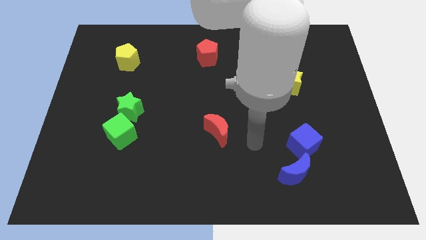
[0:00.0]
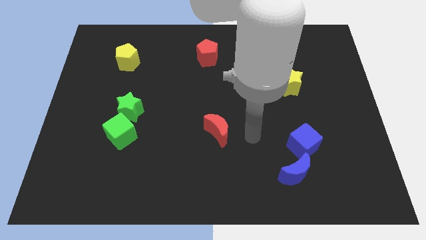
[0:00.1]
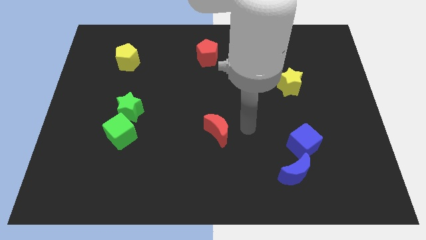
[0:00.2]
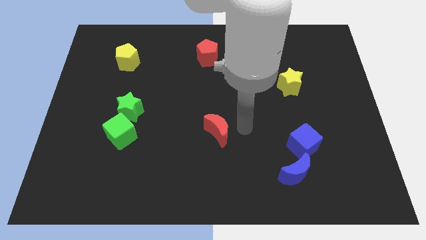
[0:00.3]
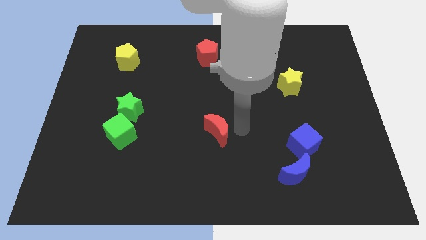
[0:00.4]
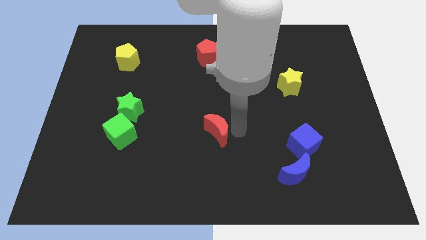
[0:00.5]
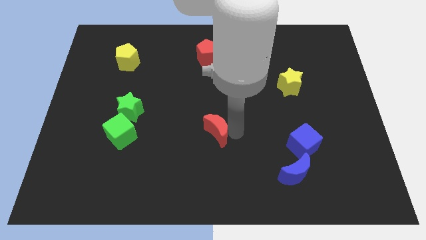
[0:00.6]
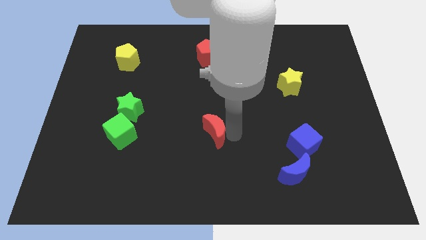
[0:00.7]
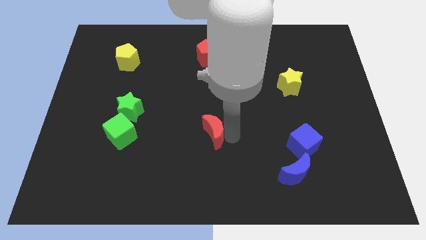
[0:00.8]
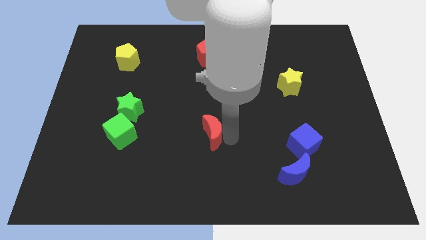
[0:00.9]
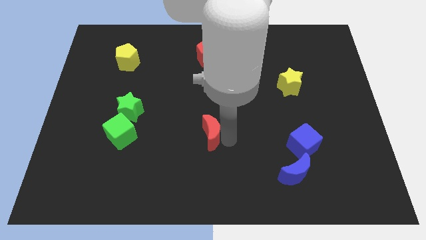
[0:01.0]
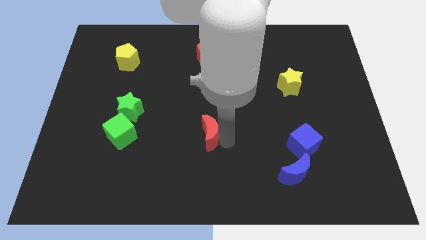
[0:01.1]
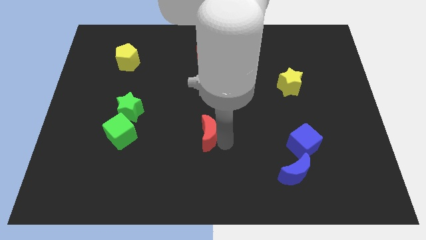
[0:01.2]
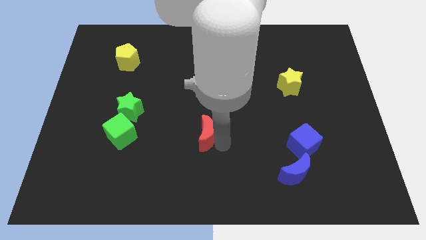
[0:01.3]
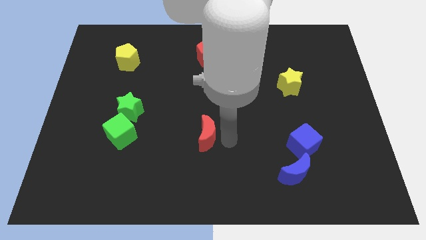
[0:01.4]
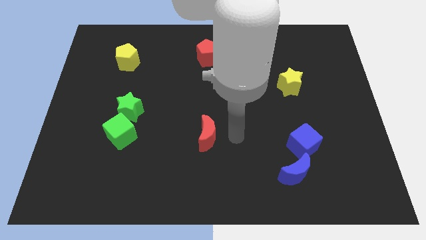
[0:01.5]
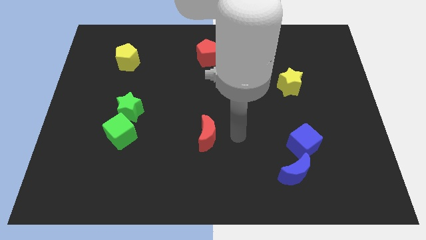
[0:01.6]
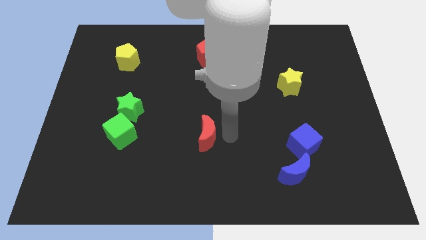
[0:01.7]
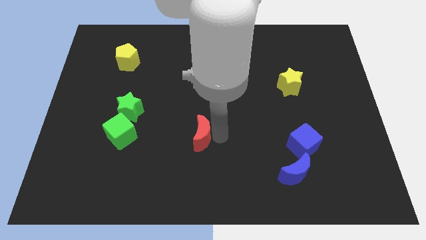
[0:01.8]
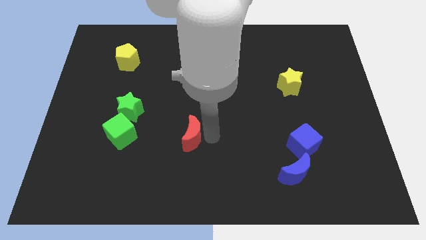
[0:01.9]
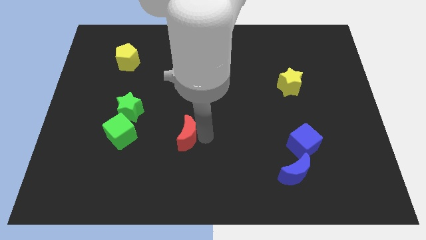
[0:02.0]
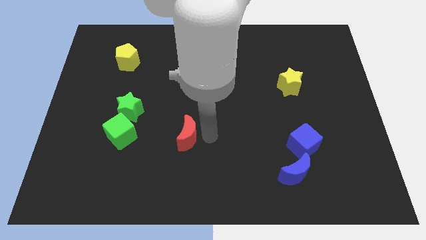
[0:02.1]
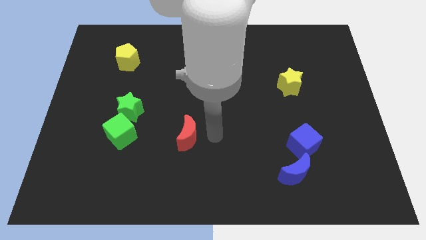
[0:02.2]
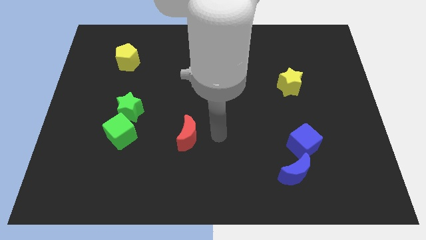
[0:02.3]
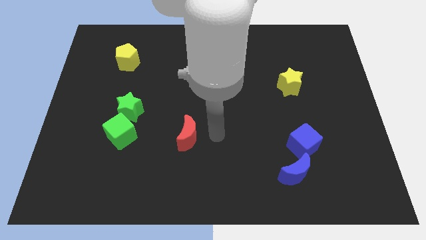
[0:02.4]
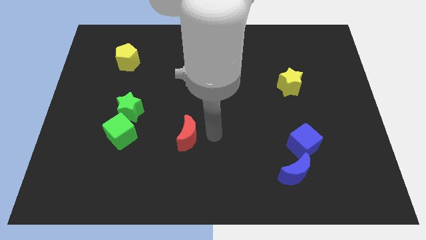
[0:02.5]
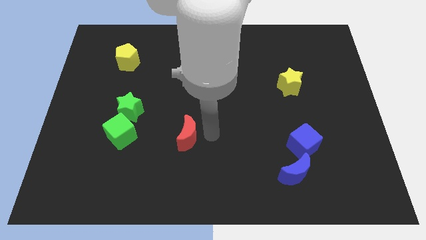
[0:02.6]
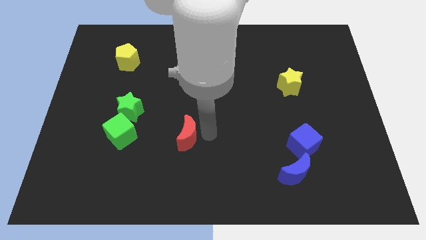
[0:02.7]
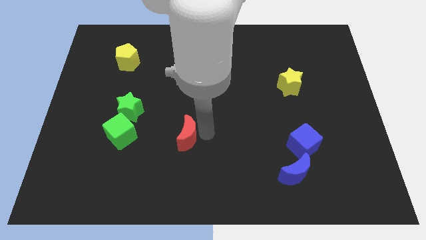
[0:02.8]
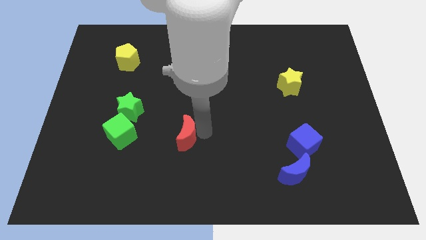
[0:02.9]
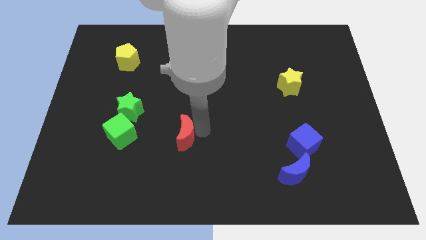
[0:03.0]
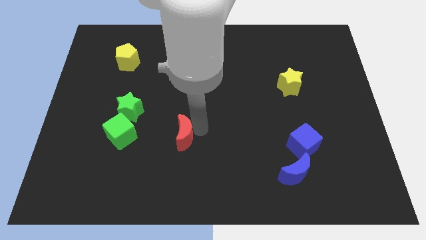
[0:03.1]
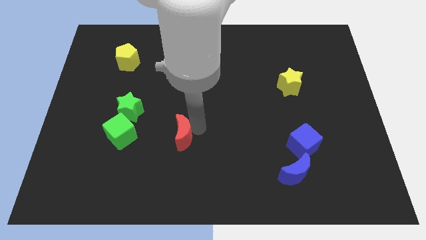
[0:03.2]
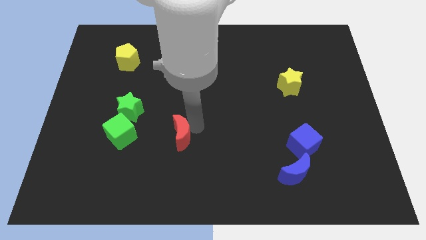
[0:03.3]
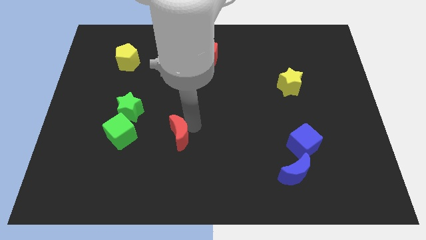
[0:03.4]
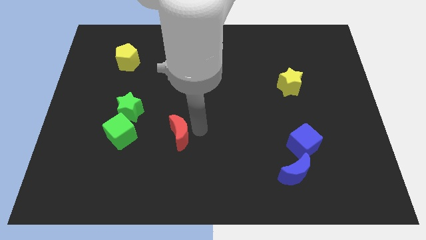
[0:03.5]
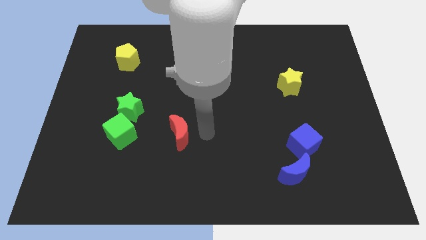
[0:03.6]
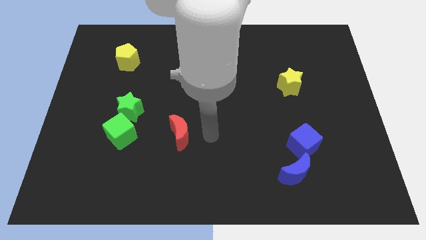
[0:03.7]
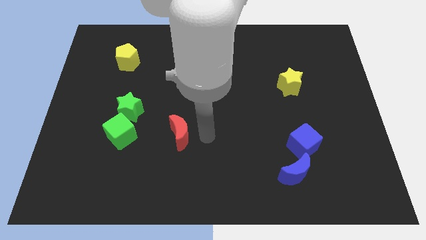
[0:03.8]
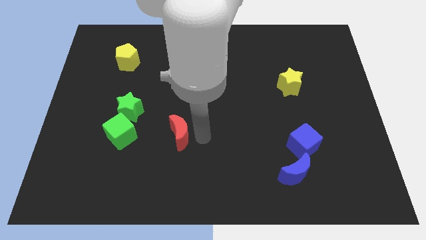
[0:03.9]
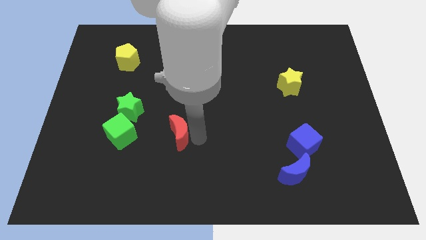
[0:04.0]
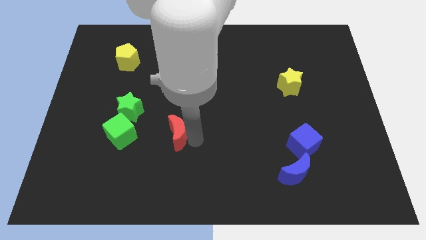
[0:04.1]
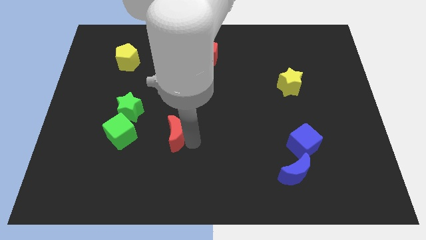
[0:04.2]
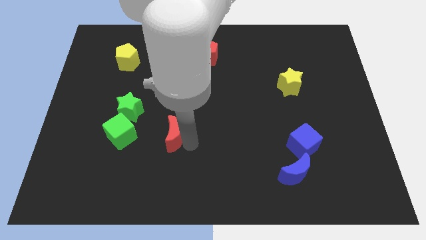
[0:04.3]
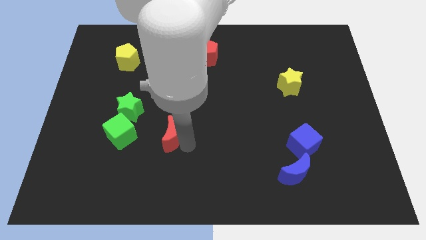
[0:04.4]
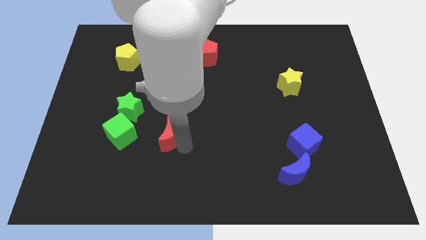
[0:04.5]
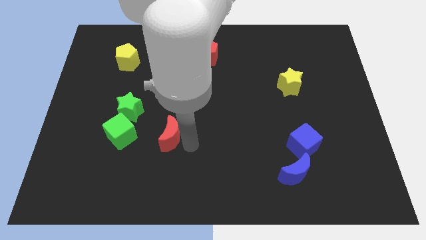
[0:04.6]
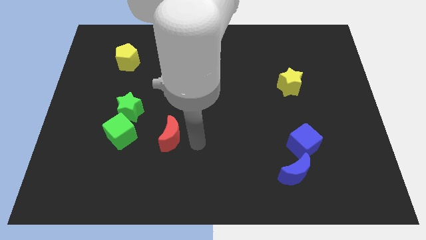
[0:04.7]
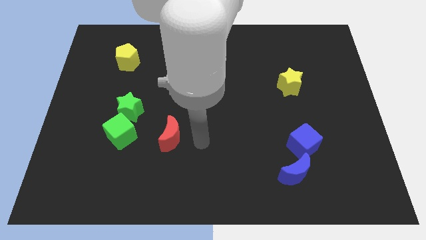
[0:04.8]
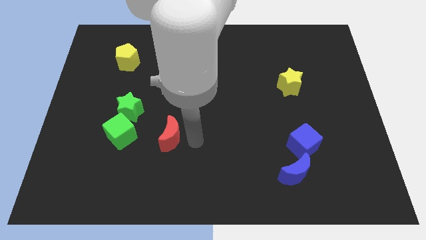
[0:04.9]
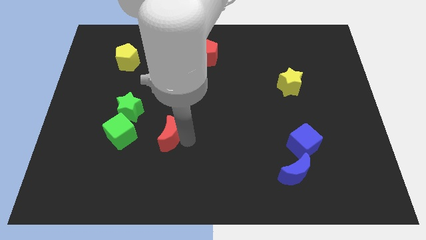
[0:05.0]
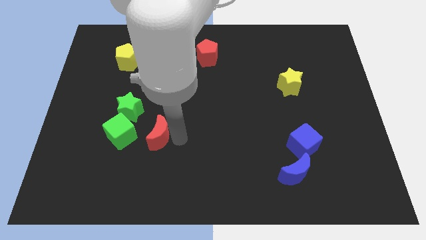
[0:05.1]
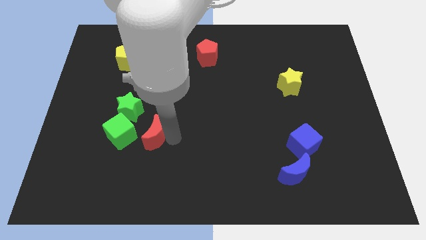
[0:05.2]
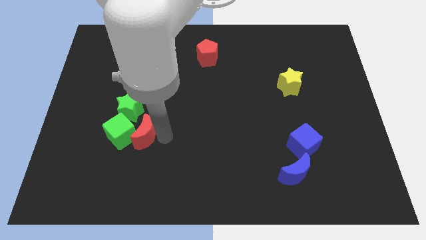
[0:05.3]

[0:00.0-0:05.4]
slide the red moon close to the green cube

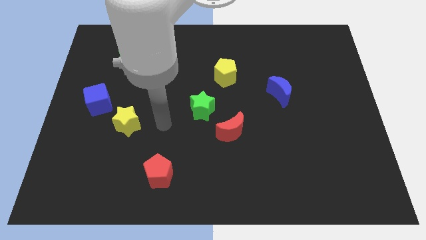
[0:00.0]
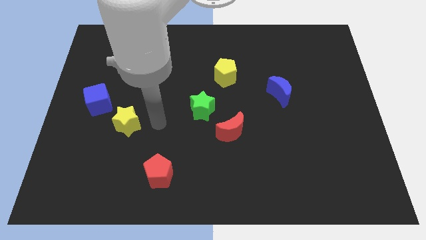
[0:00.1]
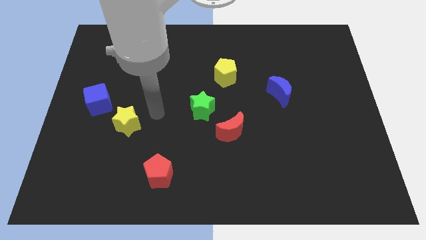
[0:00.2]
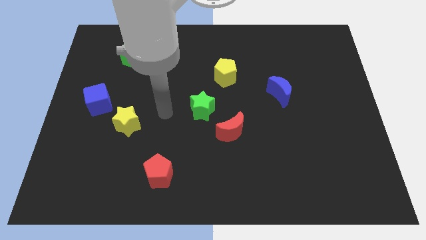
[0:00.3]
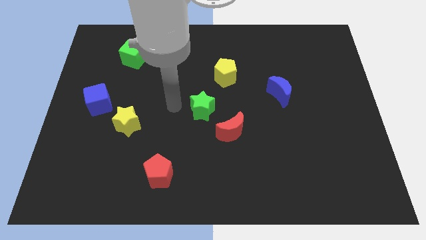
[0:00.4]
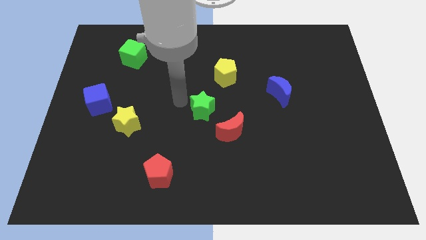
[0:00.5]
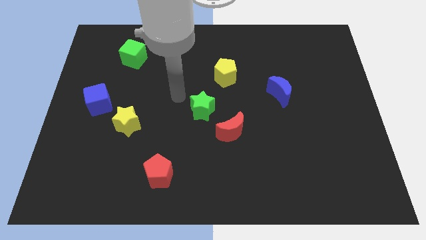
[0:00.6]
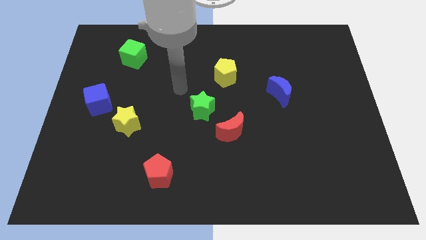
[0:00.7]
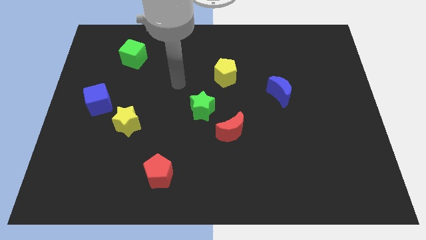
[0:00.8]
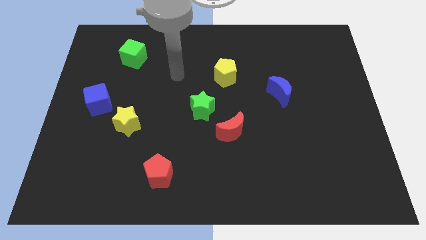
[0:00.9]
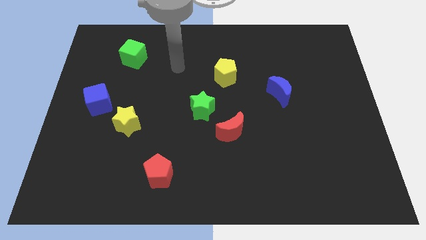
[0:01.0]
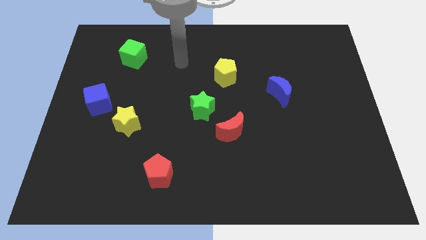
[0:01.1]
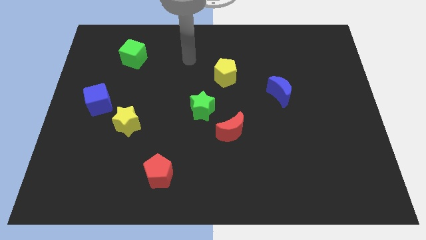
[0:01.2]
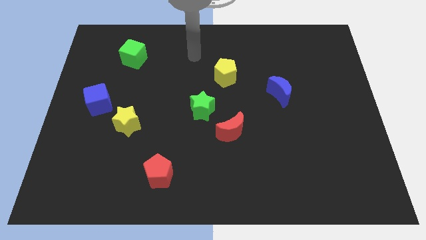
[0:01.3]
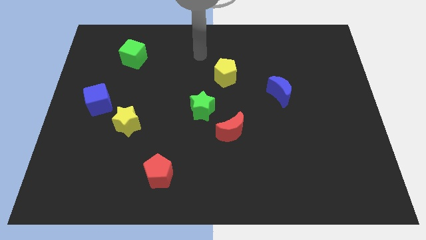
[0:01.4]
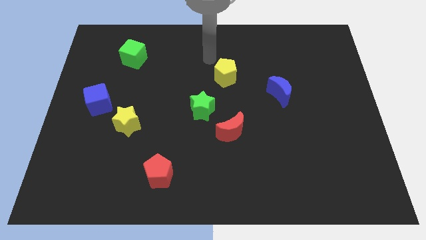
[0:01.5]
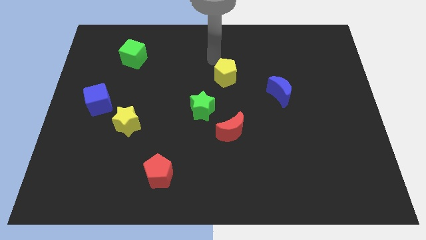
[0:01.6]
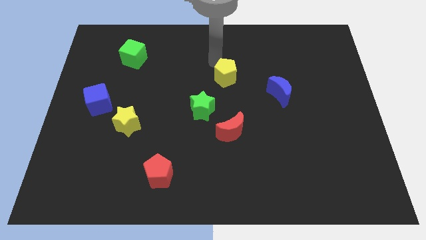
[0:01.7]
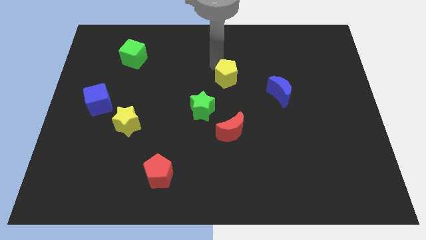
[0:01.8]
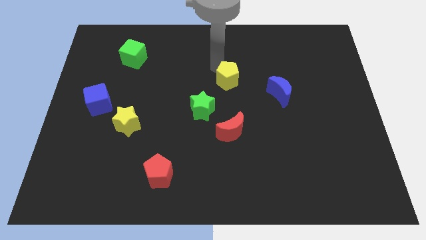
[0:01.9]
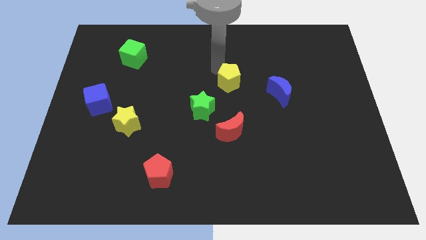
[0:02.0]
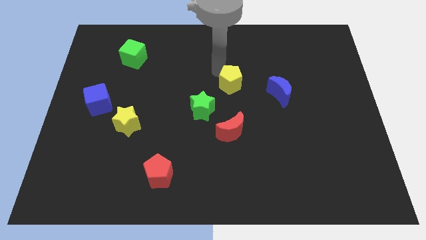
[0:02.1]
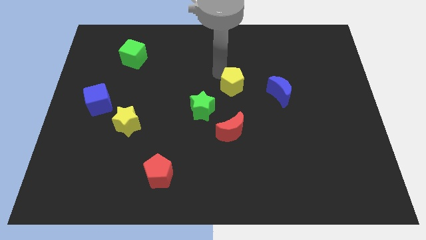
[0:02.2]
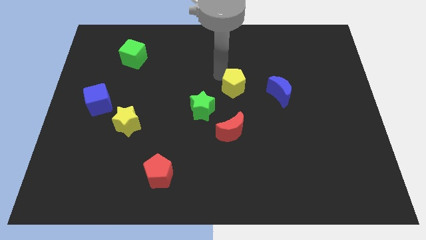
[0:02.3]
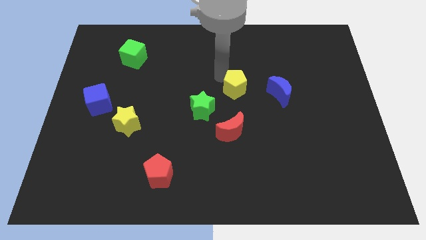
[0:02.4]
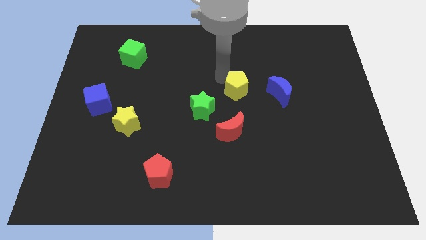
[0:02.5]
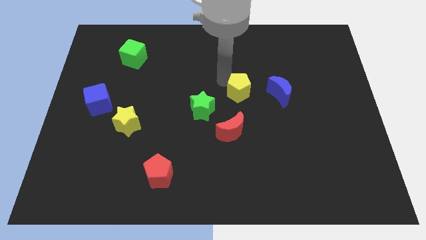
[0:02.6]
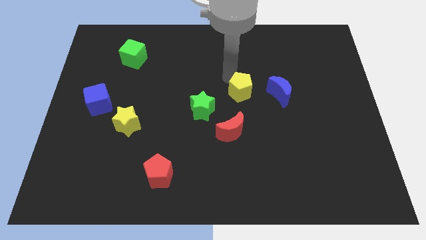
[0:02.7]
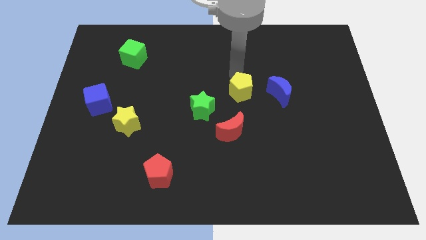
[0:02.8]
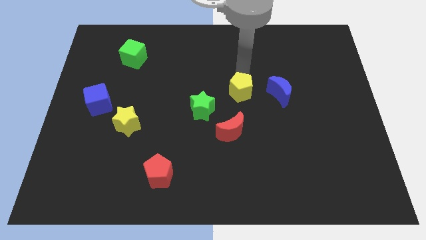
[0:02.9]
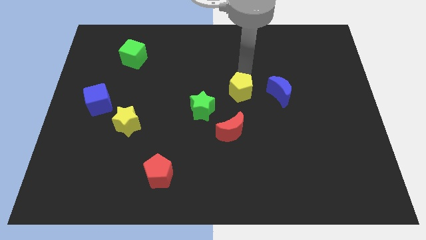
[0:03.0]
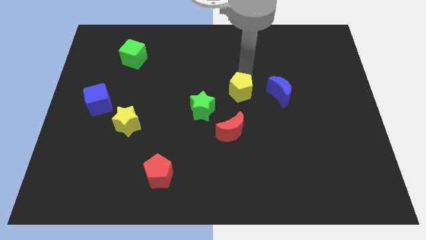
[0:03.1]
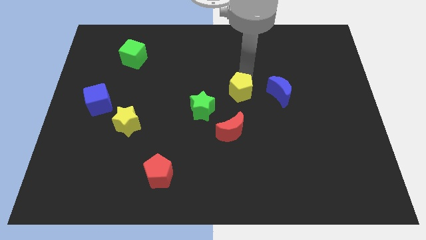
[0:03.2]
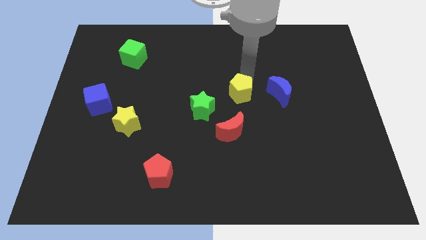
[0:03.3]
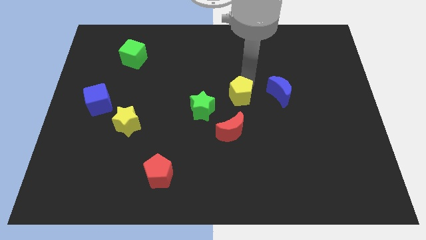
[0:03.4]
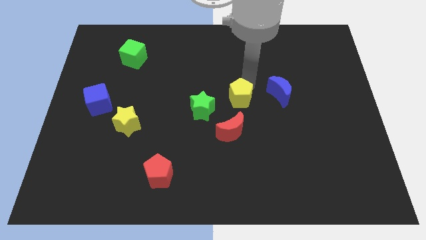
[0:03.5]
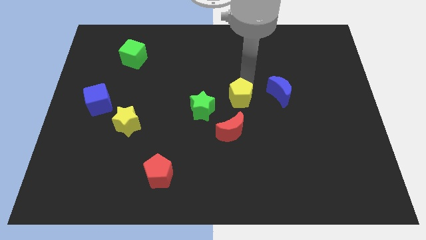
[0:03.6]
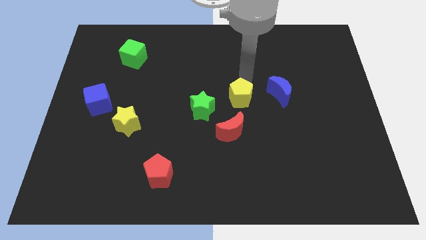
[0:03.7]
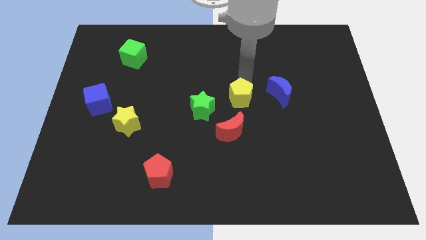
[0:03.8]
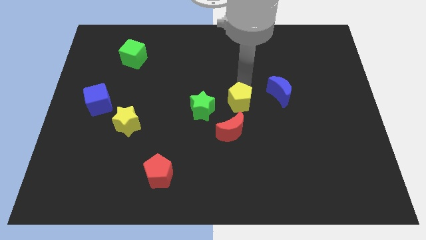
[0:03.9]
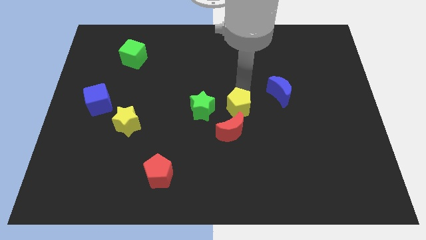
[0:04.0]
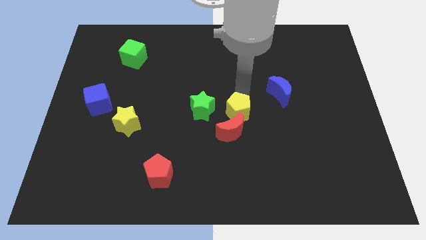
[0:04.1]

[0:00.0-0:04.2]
put the yellow pentagon close to the red moon
